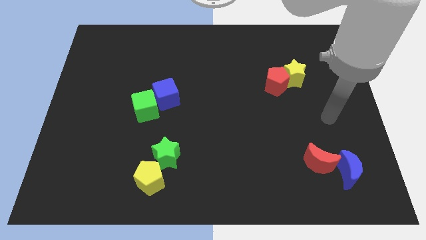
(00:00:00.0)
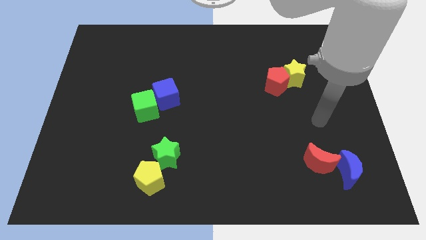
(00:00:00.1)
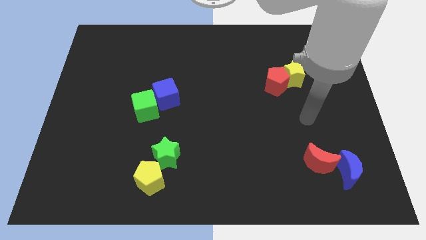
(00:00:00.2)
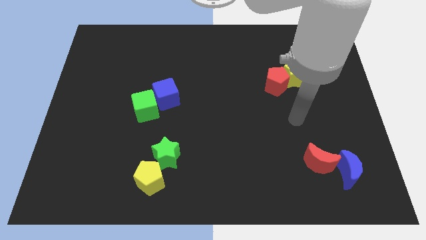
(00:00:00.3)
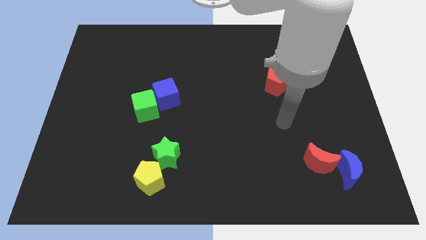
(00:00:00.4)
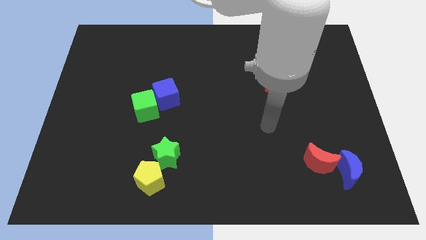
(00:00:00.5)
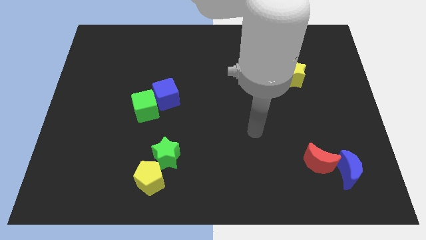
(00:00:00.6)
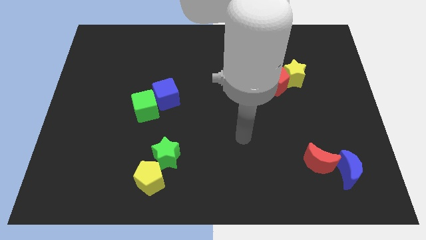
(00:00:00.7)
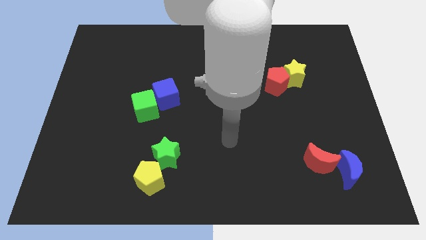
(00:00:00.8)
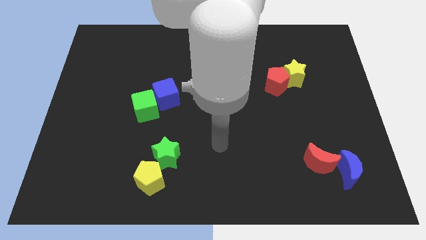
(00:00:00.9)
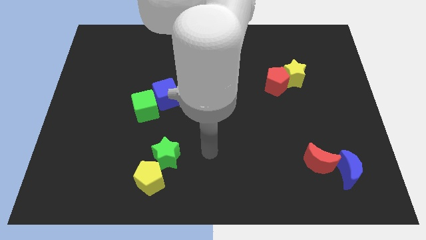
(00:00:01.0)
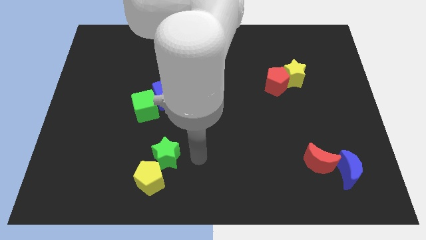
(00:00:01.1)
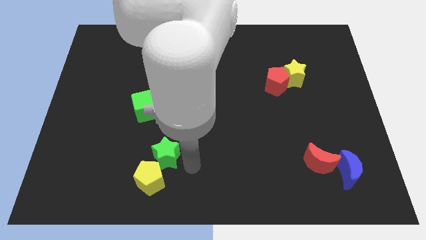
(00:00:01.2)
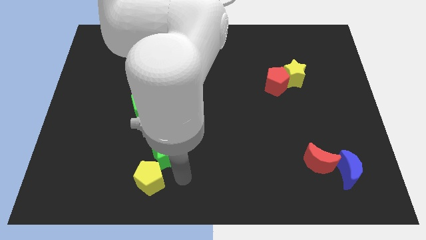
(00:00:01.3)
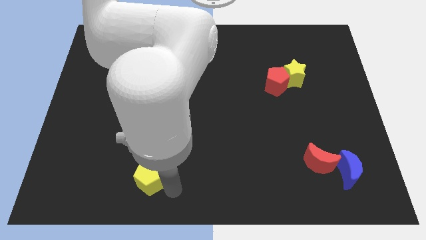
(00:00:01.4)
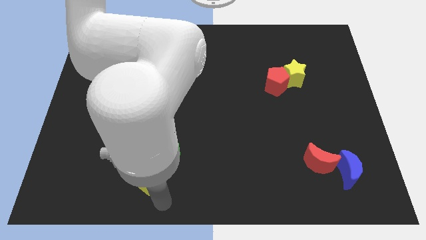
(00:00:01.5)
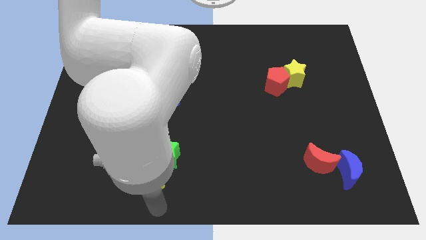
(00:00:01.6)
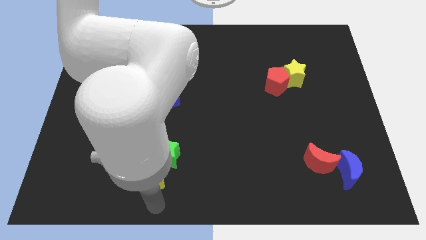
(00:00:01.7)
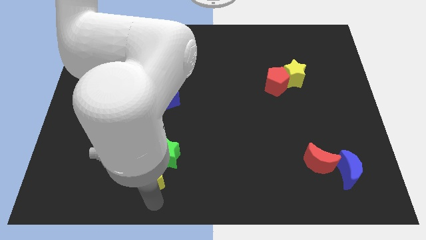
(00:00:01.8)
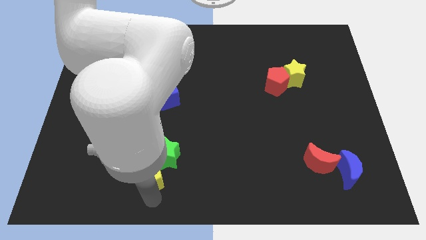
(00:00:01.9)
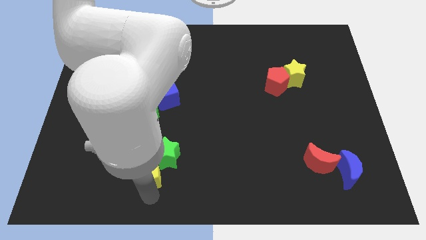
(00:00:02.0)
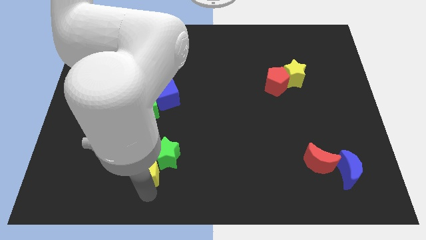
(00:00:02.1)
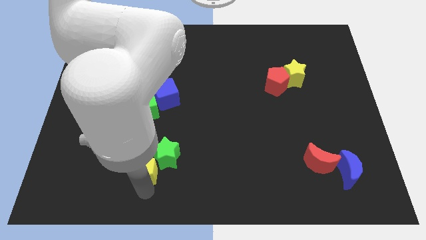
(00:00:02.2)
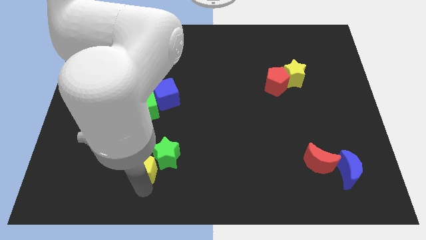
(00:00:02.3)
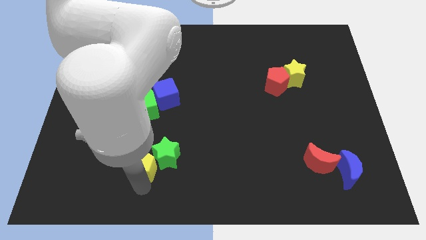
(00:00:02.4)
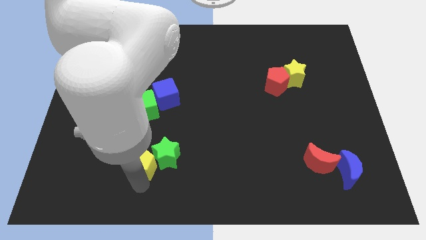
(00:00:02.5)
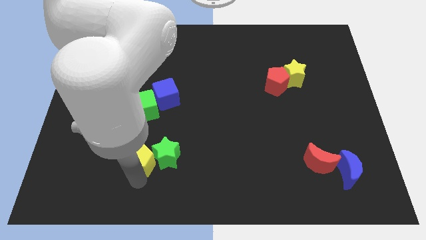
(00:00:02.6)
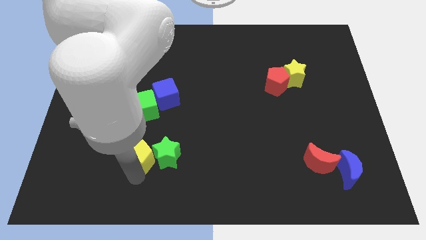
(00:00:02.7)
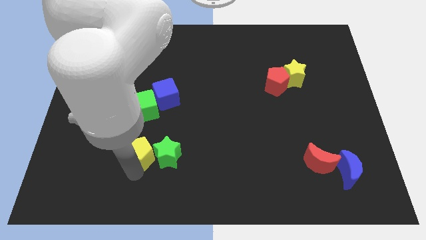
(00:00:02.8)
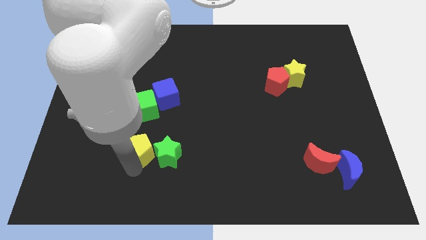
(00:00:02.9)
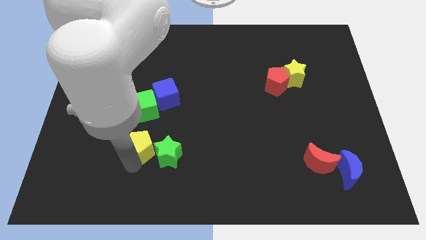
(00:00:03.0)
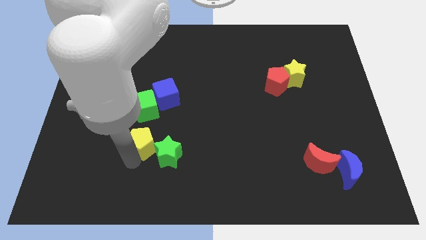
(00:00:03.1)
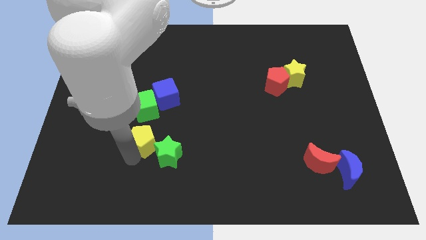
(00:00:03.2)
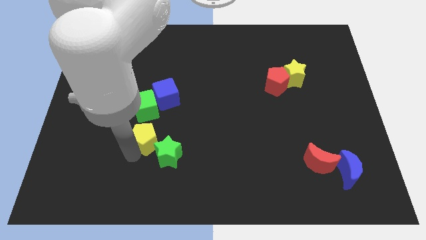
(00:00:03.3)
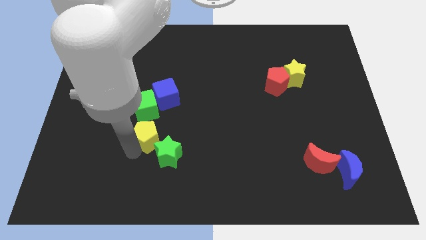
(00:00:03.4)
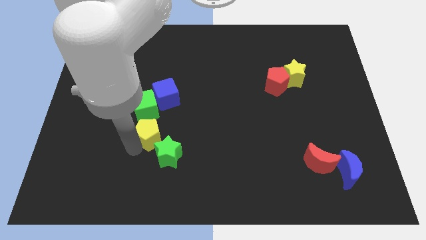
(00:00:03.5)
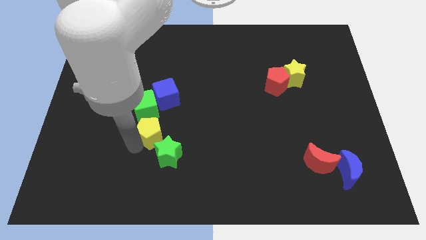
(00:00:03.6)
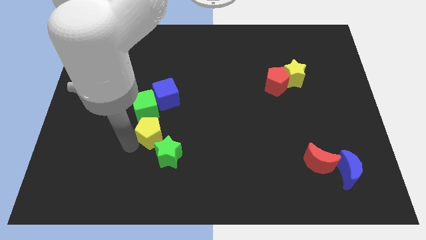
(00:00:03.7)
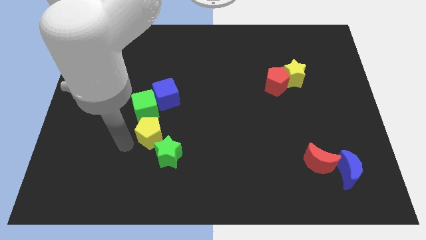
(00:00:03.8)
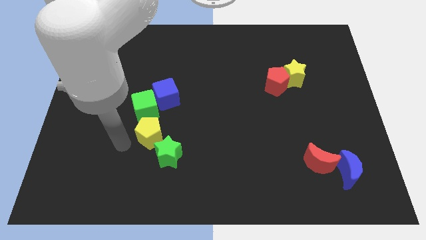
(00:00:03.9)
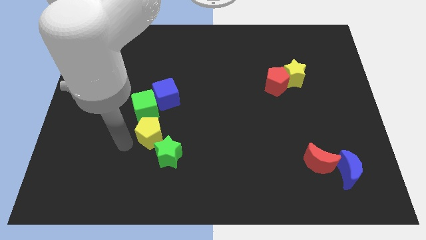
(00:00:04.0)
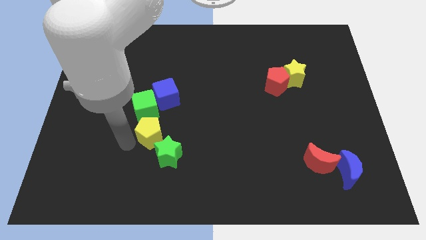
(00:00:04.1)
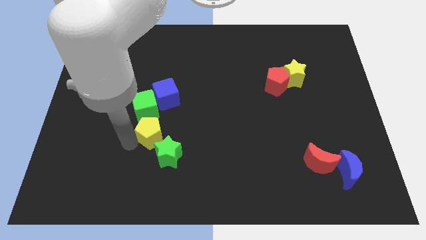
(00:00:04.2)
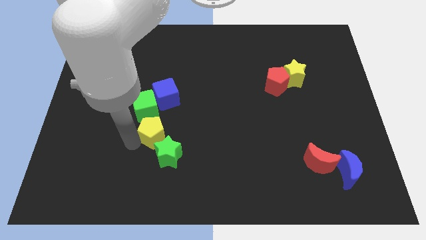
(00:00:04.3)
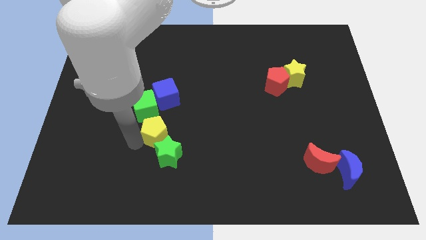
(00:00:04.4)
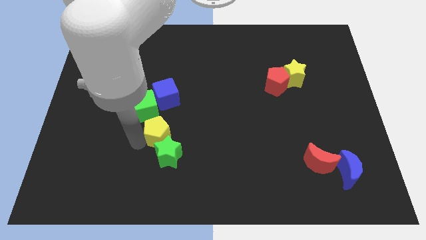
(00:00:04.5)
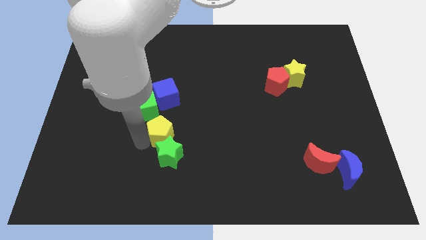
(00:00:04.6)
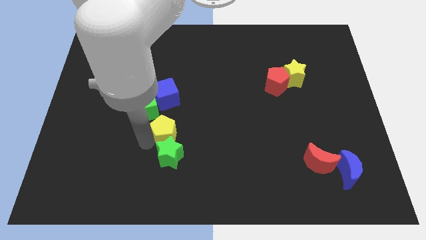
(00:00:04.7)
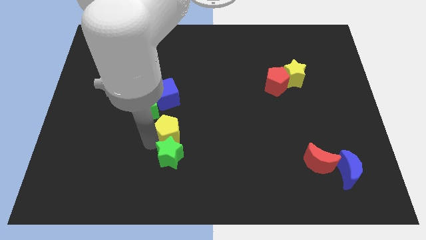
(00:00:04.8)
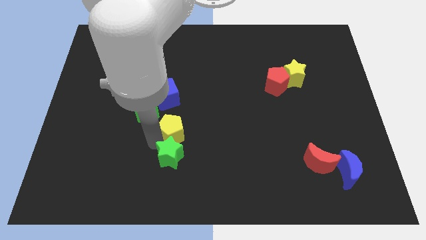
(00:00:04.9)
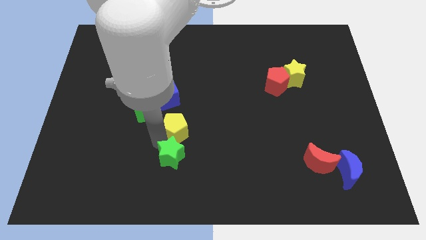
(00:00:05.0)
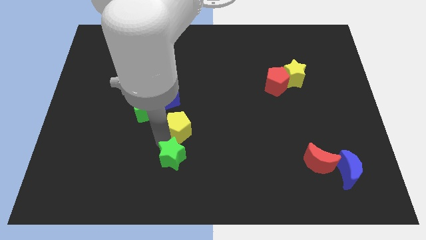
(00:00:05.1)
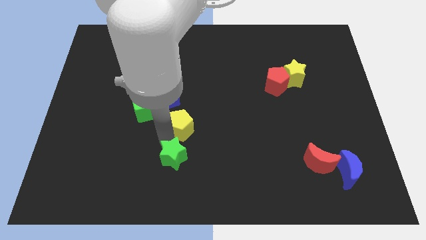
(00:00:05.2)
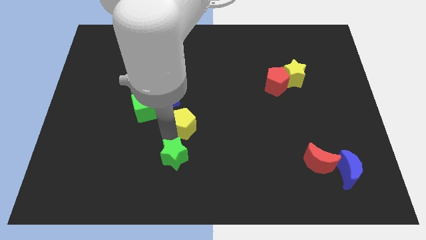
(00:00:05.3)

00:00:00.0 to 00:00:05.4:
push the yellow pentagon just right of the green cube
